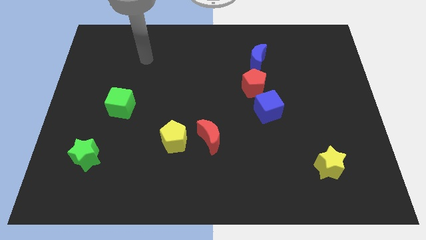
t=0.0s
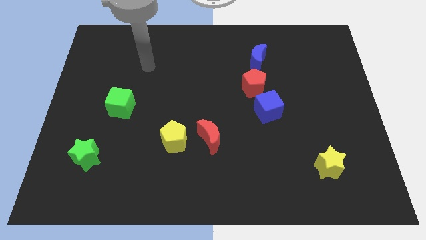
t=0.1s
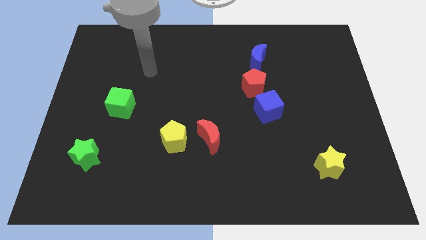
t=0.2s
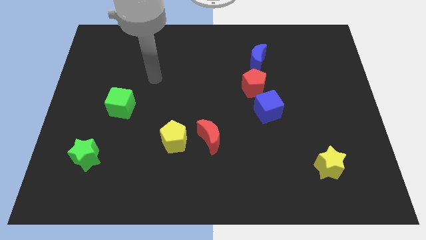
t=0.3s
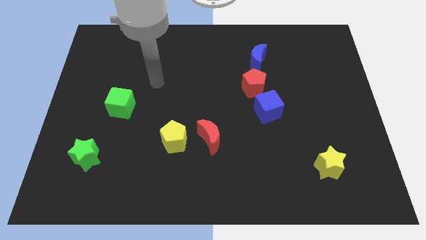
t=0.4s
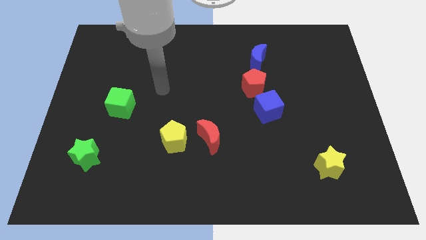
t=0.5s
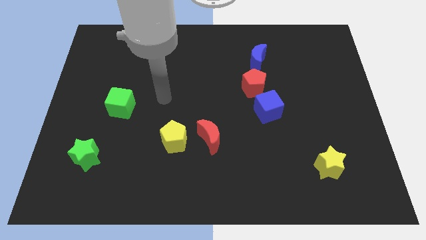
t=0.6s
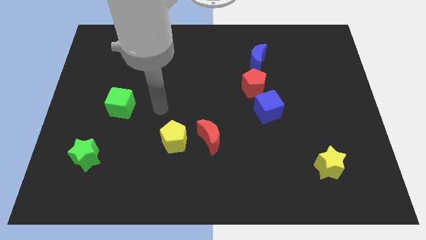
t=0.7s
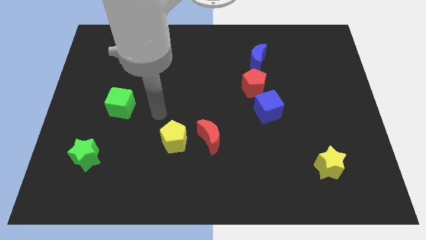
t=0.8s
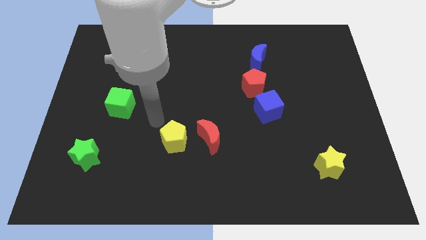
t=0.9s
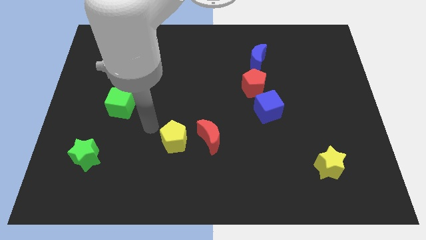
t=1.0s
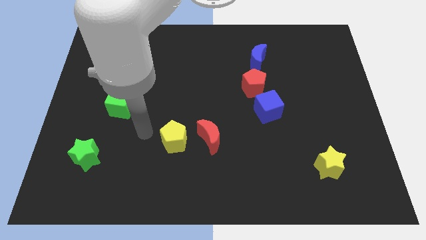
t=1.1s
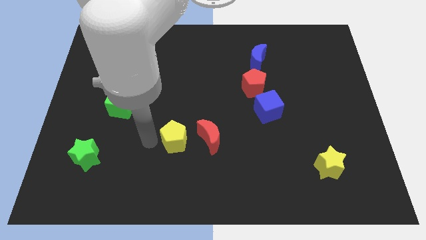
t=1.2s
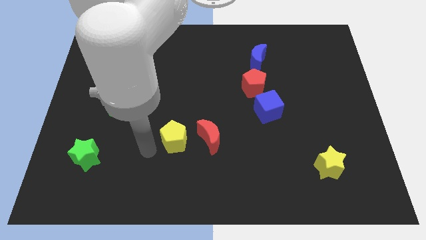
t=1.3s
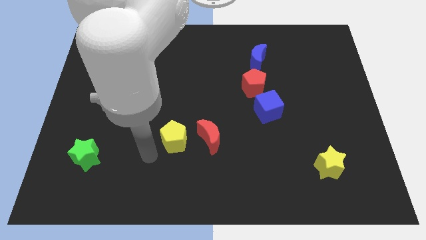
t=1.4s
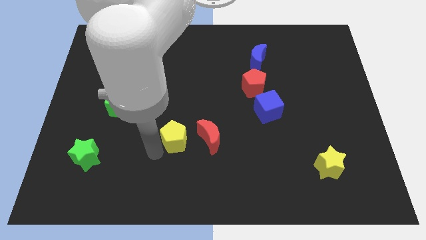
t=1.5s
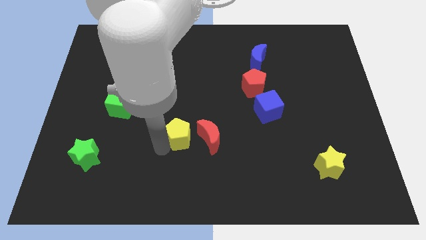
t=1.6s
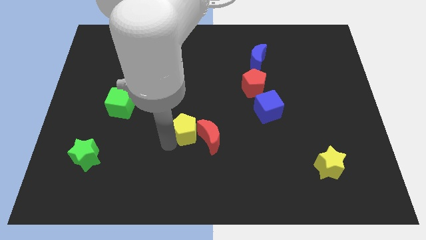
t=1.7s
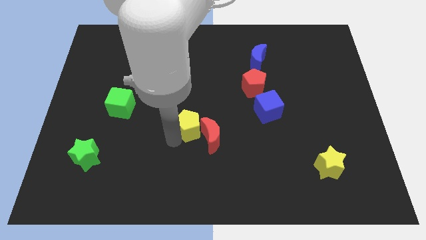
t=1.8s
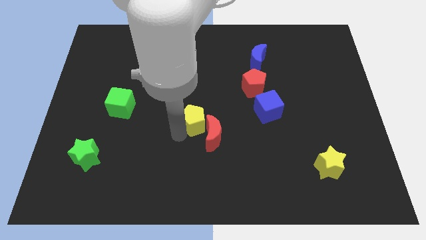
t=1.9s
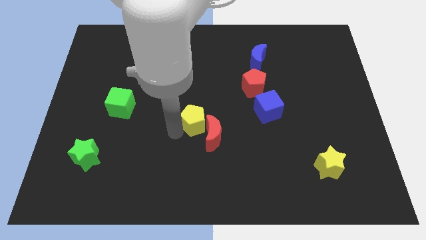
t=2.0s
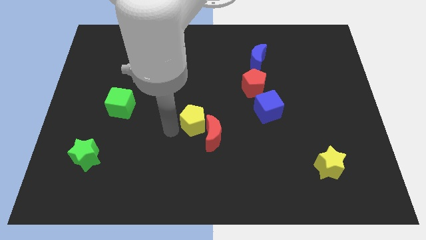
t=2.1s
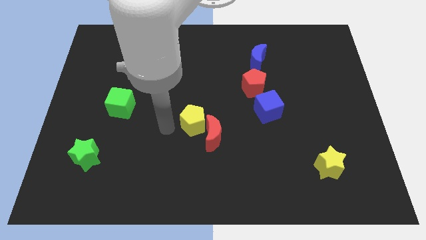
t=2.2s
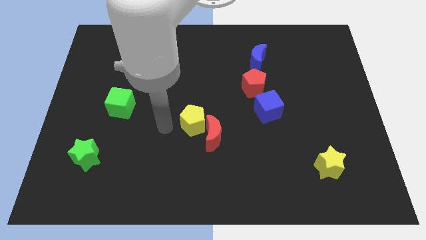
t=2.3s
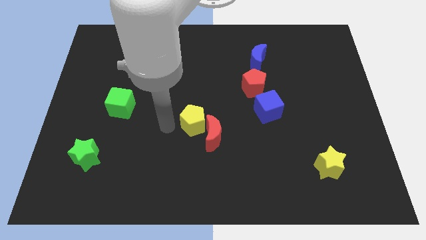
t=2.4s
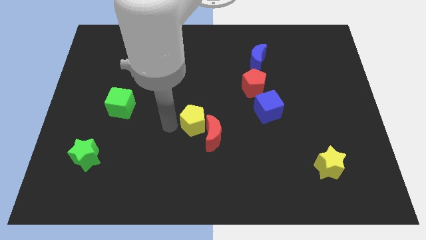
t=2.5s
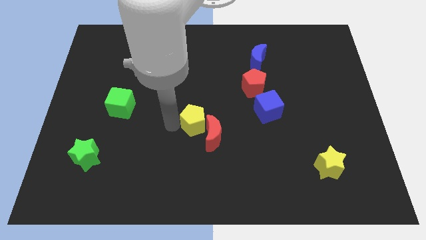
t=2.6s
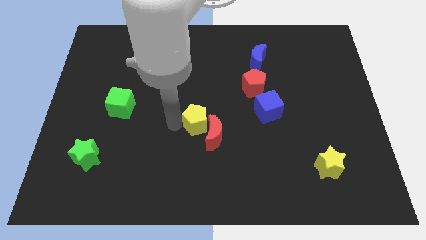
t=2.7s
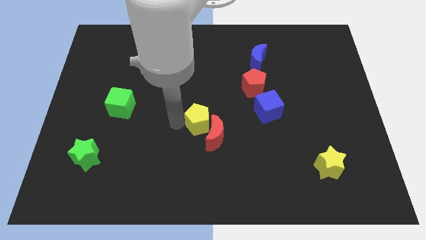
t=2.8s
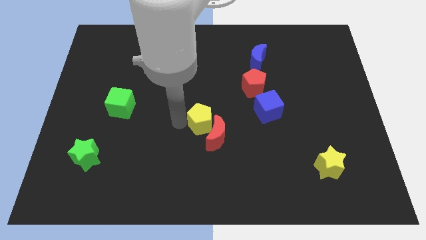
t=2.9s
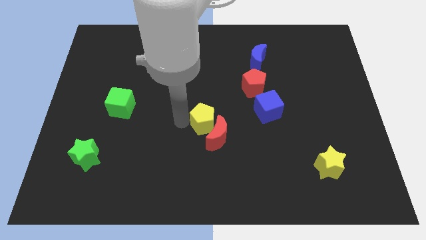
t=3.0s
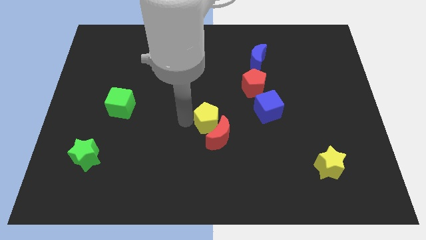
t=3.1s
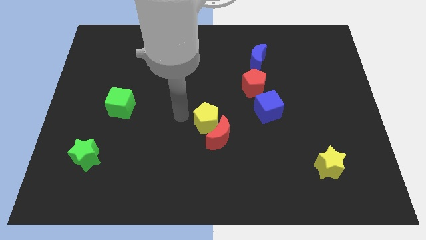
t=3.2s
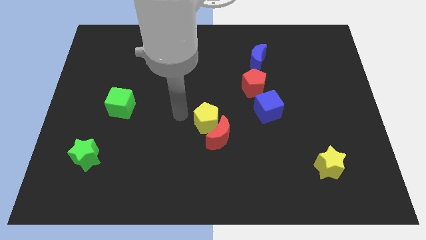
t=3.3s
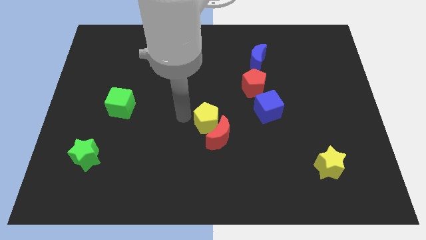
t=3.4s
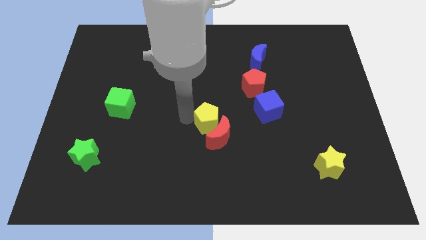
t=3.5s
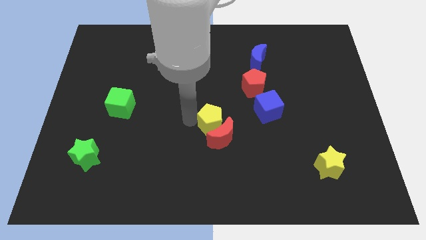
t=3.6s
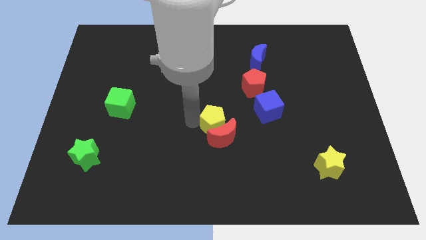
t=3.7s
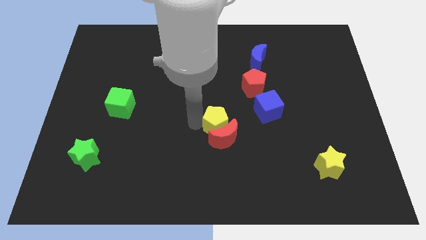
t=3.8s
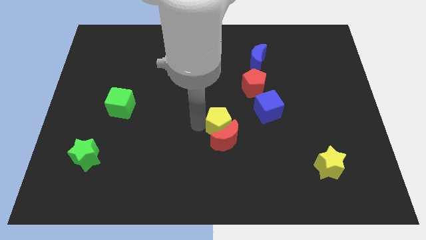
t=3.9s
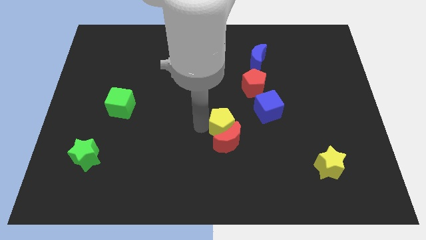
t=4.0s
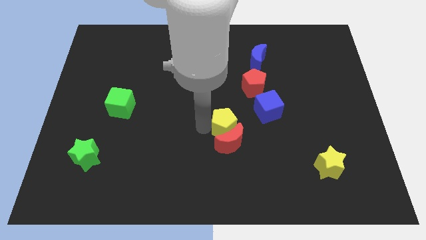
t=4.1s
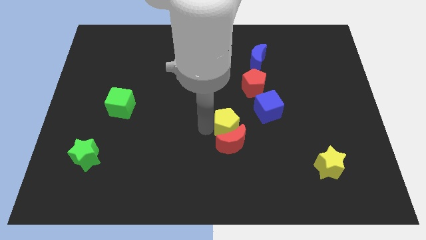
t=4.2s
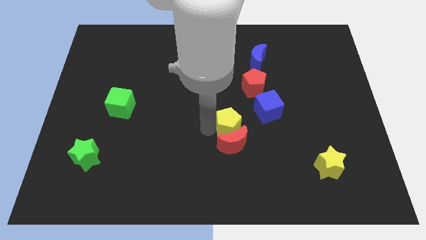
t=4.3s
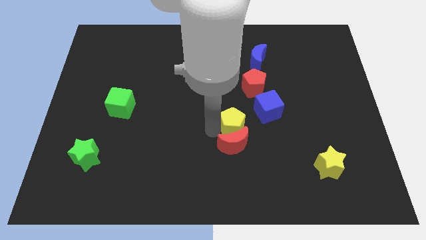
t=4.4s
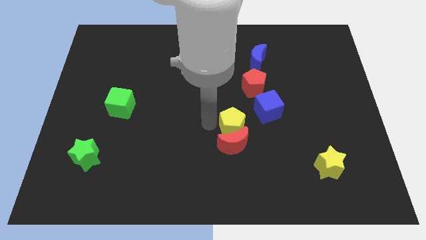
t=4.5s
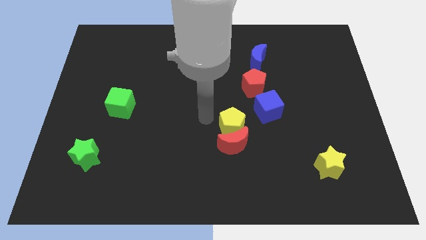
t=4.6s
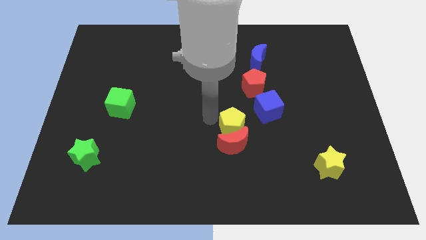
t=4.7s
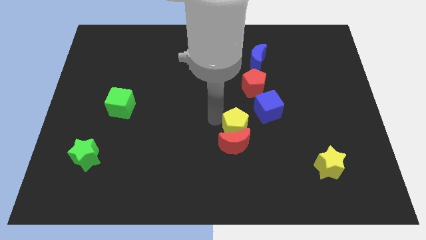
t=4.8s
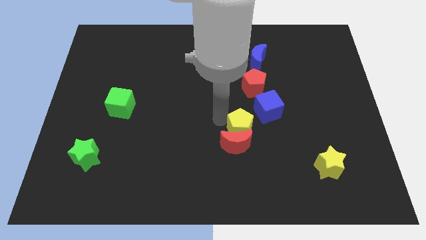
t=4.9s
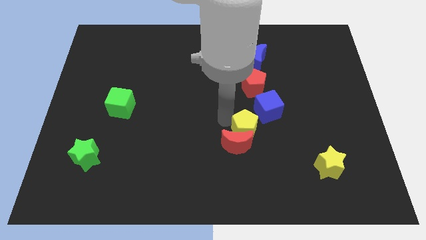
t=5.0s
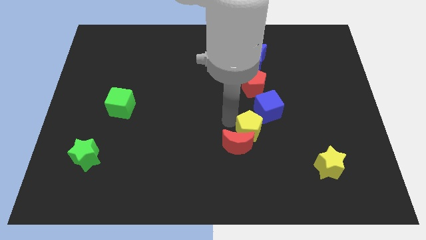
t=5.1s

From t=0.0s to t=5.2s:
push the yellow pentagon just right of the red moon

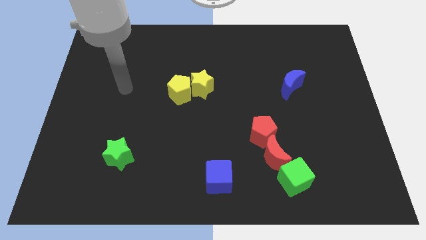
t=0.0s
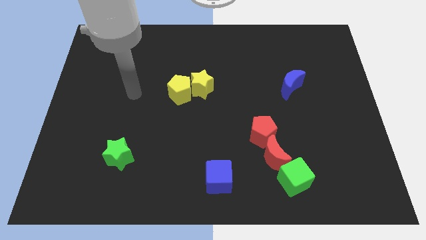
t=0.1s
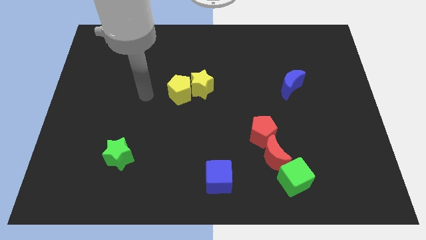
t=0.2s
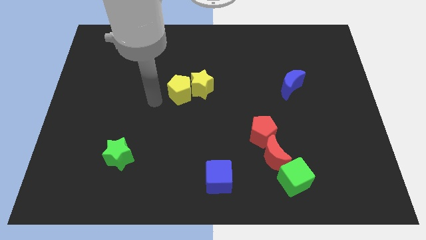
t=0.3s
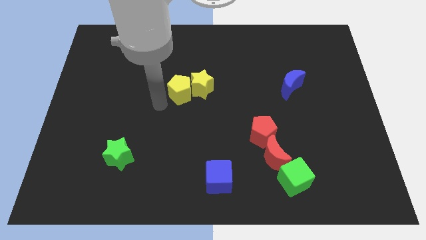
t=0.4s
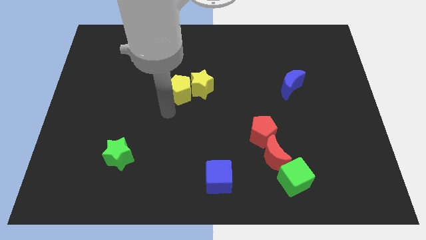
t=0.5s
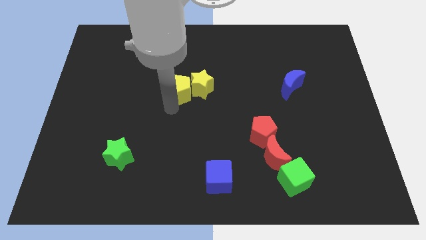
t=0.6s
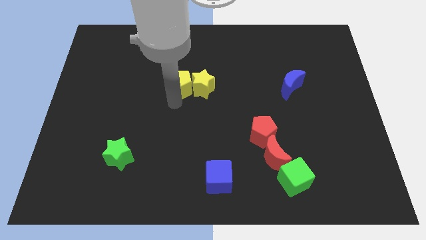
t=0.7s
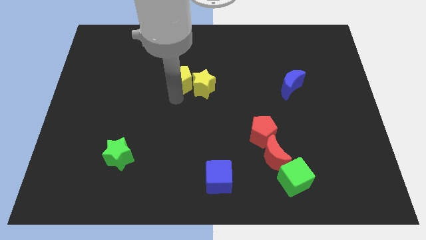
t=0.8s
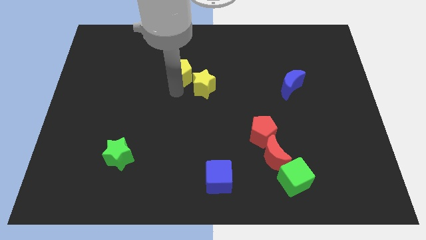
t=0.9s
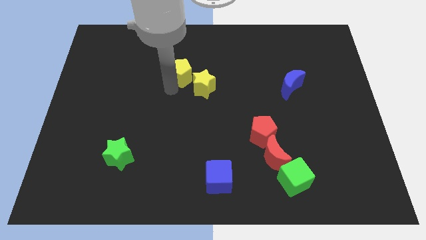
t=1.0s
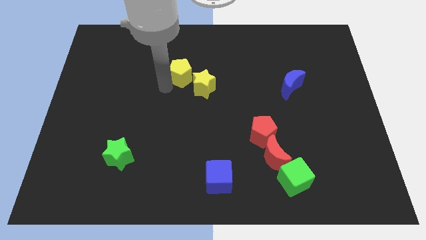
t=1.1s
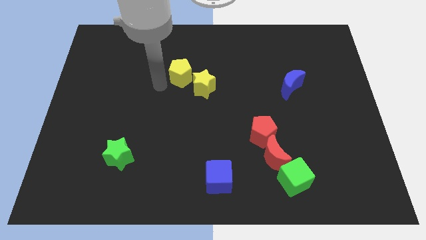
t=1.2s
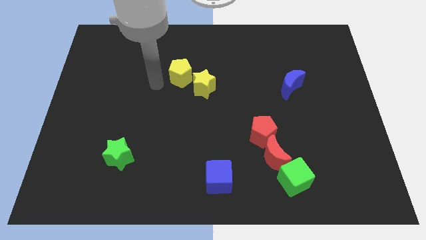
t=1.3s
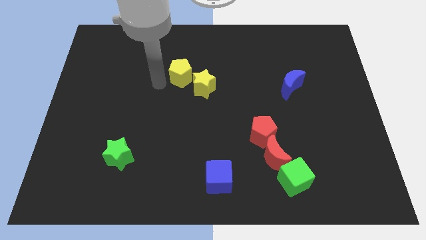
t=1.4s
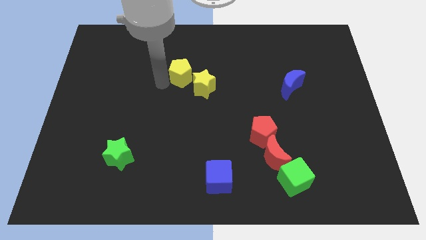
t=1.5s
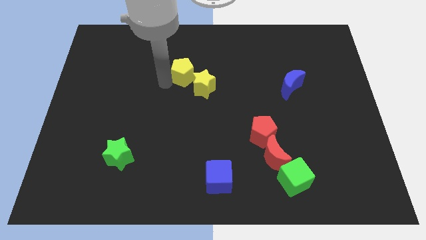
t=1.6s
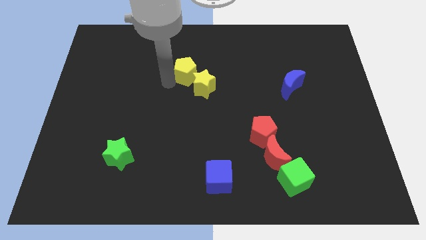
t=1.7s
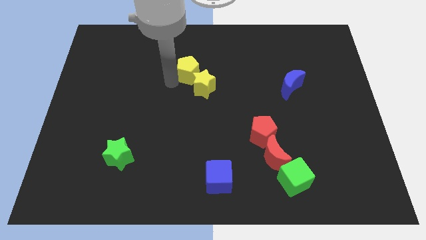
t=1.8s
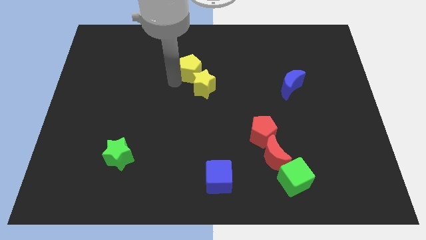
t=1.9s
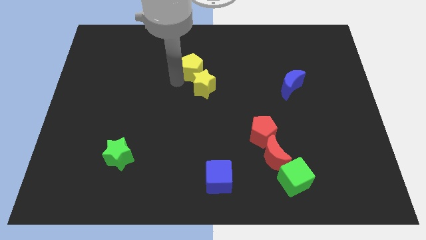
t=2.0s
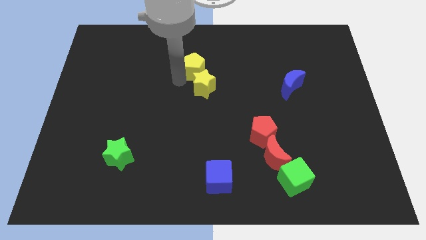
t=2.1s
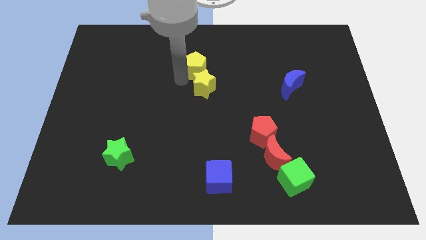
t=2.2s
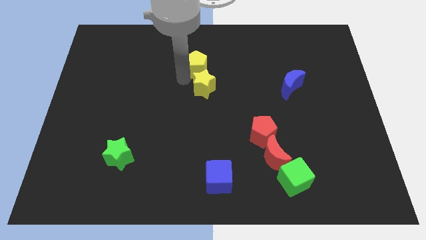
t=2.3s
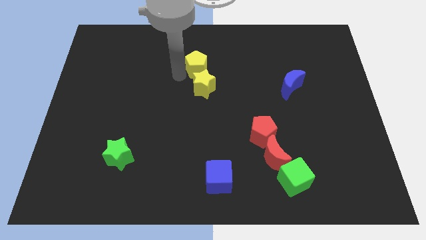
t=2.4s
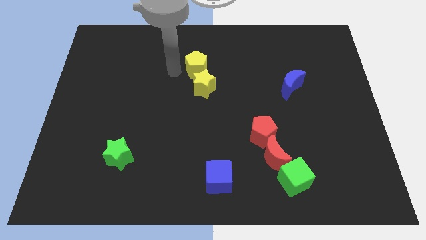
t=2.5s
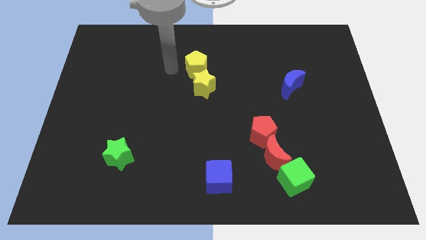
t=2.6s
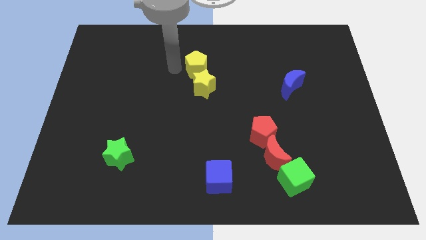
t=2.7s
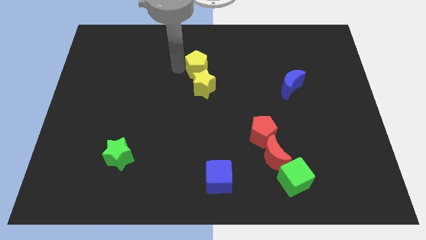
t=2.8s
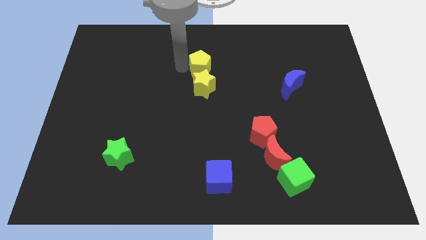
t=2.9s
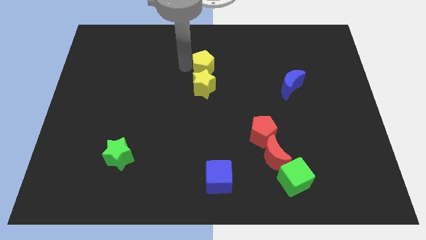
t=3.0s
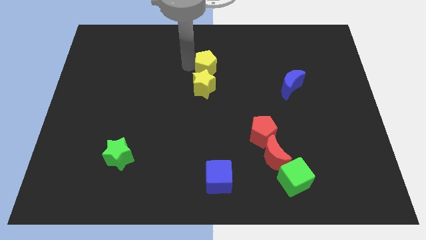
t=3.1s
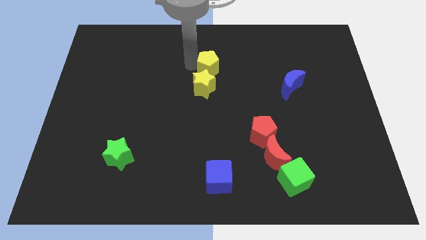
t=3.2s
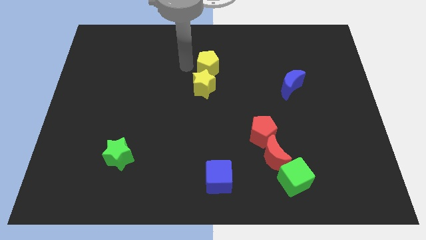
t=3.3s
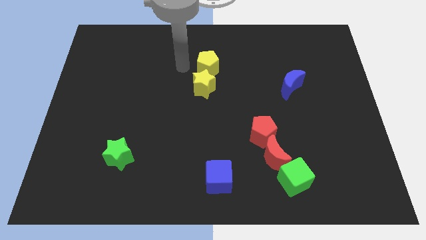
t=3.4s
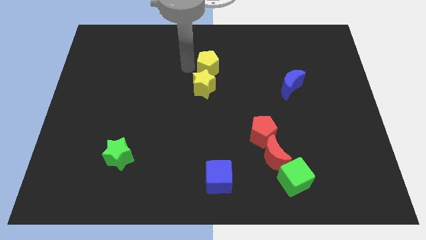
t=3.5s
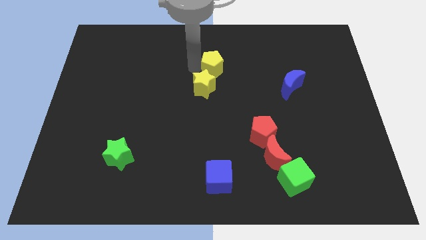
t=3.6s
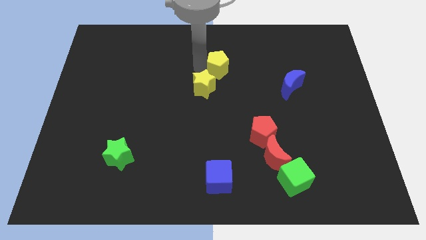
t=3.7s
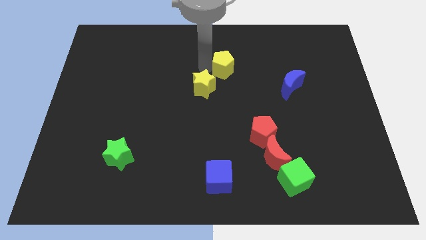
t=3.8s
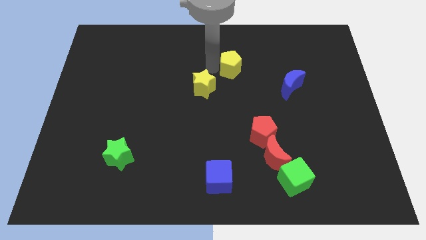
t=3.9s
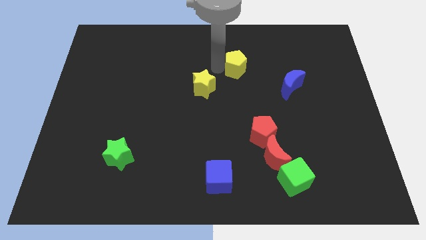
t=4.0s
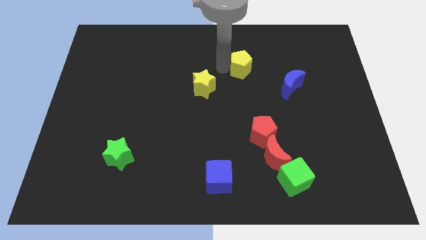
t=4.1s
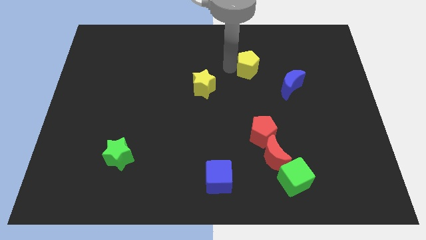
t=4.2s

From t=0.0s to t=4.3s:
push the yellow pentagon to the top left of the blue moon
